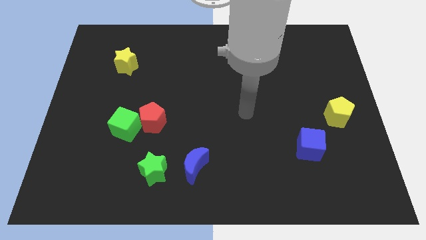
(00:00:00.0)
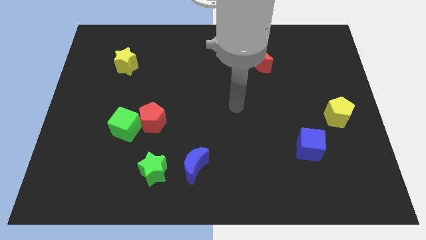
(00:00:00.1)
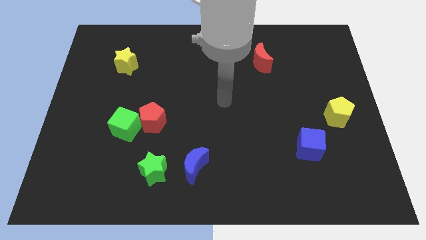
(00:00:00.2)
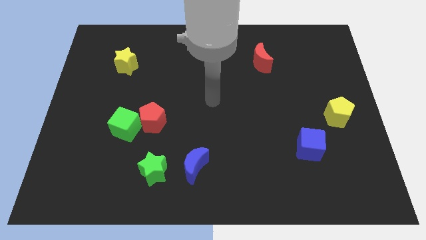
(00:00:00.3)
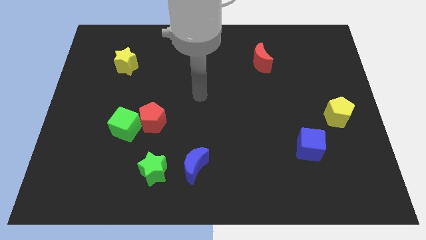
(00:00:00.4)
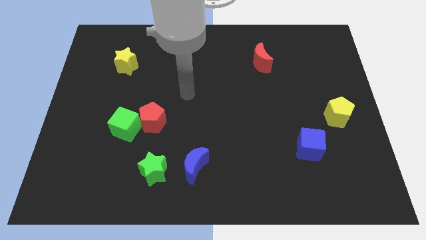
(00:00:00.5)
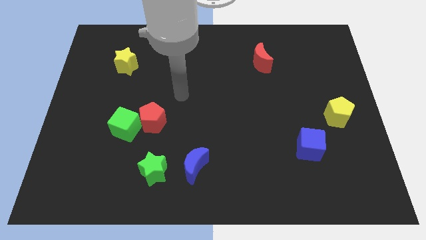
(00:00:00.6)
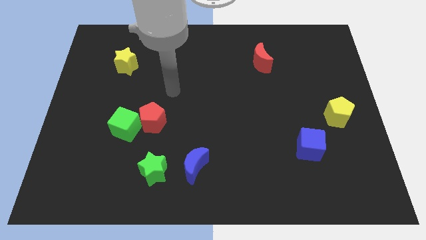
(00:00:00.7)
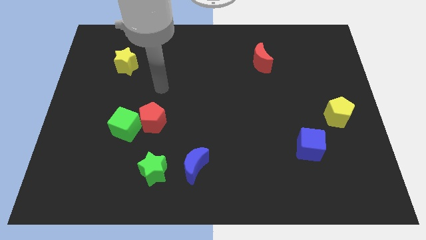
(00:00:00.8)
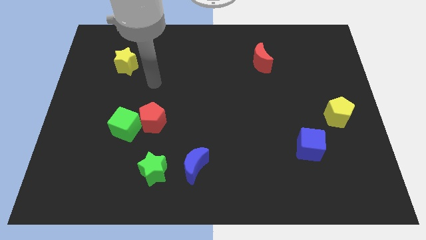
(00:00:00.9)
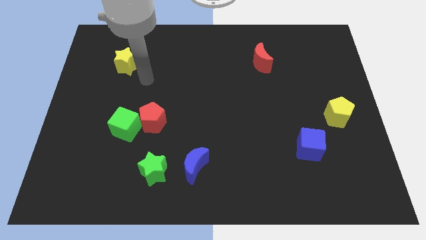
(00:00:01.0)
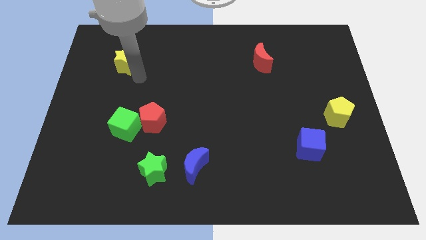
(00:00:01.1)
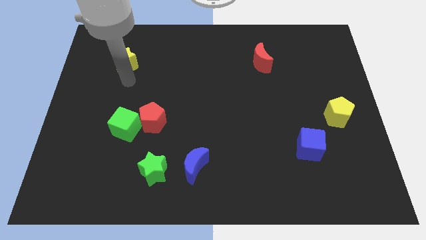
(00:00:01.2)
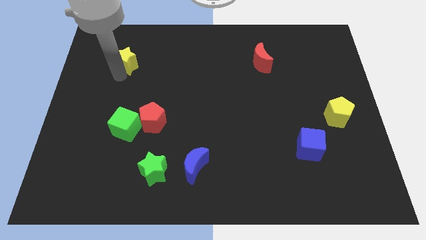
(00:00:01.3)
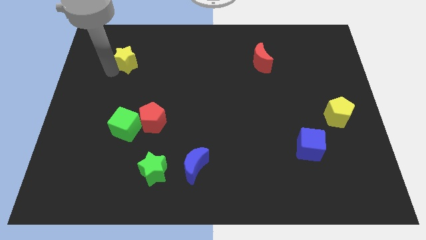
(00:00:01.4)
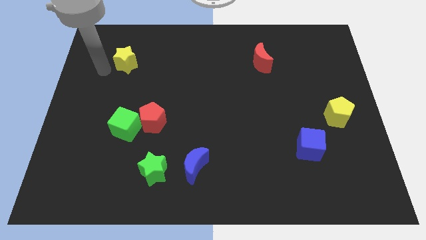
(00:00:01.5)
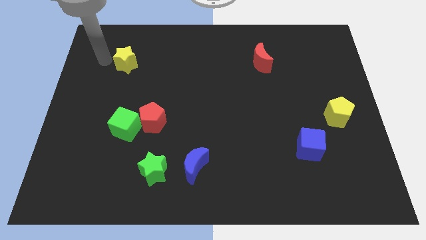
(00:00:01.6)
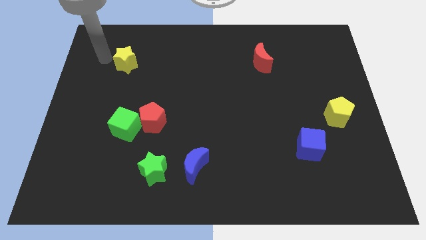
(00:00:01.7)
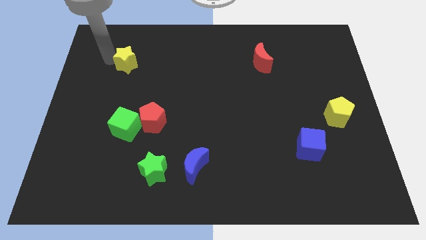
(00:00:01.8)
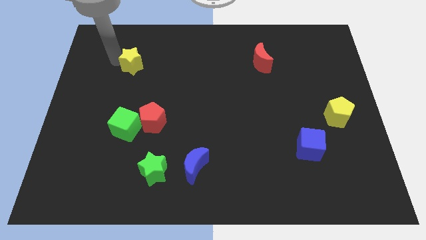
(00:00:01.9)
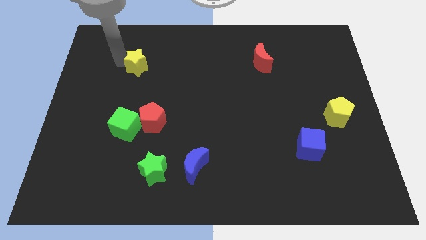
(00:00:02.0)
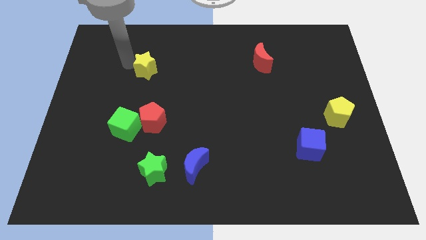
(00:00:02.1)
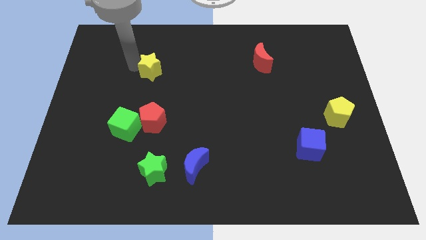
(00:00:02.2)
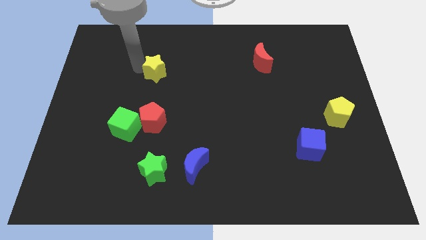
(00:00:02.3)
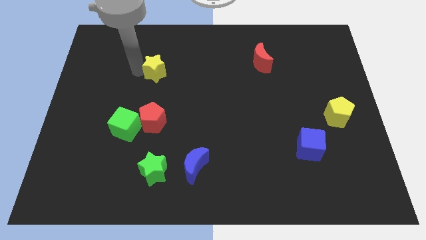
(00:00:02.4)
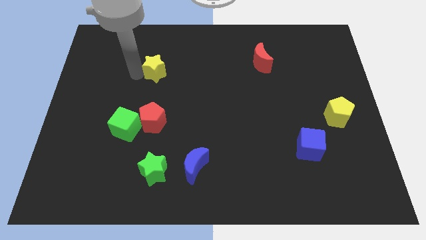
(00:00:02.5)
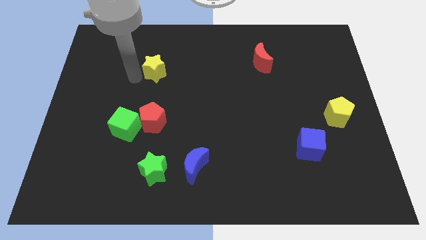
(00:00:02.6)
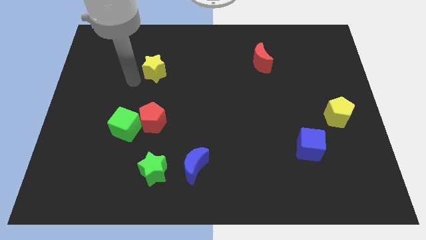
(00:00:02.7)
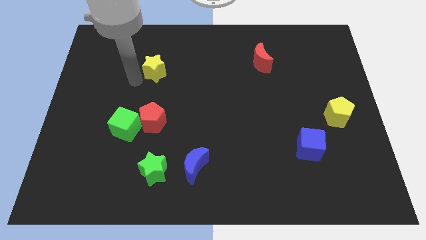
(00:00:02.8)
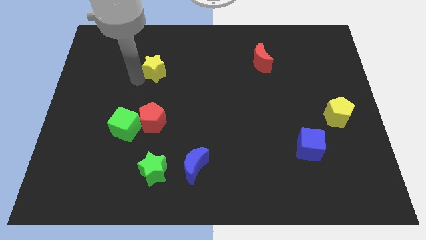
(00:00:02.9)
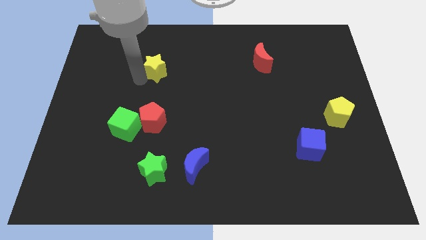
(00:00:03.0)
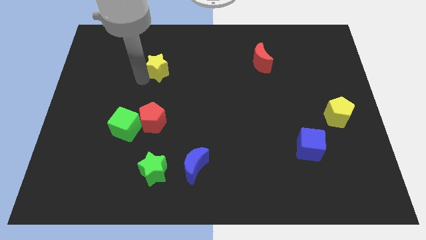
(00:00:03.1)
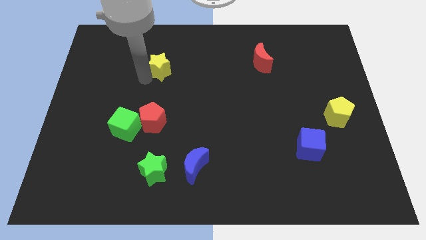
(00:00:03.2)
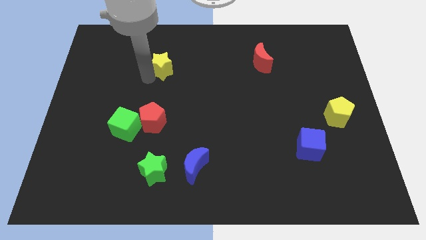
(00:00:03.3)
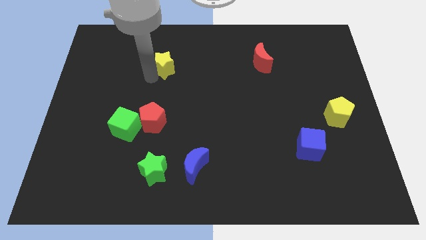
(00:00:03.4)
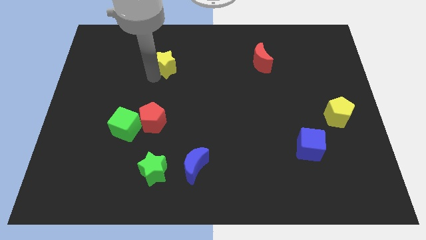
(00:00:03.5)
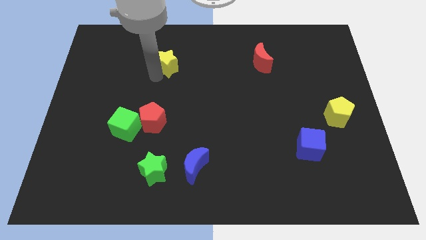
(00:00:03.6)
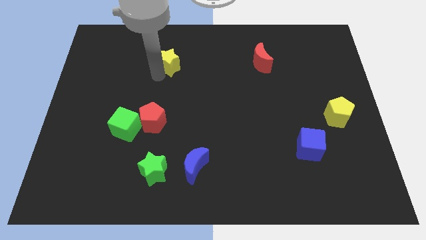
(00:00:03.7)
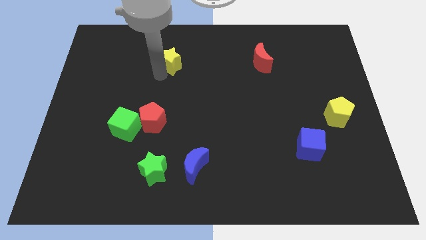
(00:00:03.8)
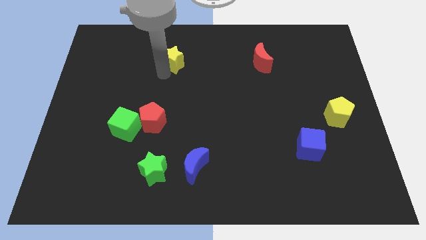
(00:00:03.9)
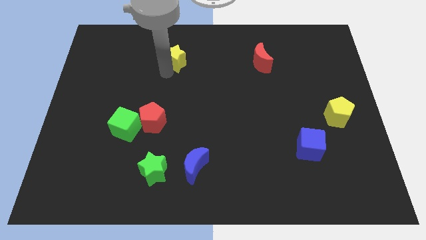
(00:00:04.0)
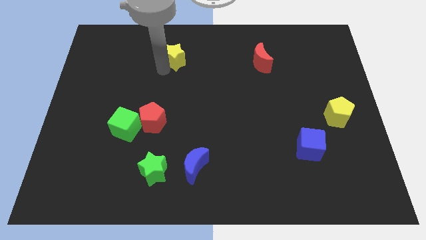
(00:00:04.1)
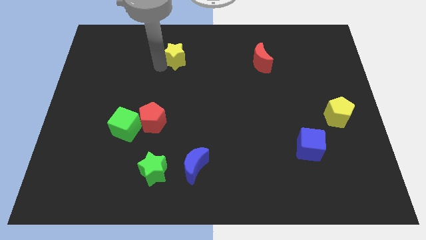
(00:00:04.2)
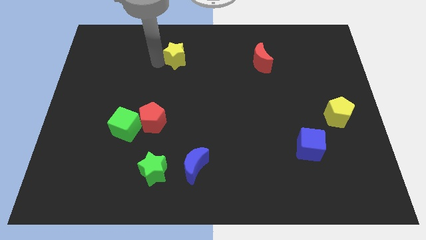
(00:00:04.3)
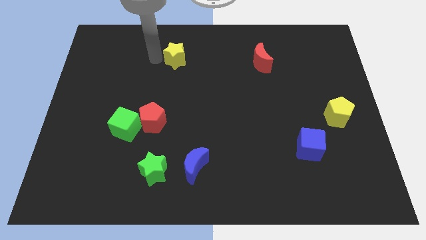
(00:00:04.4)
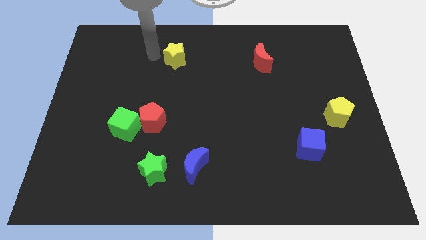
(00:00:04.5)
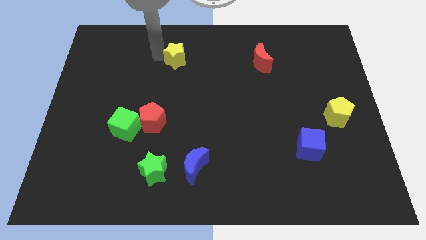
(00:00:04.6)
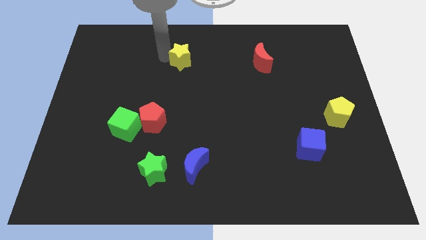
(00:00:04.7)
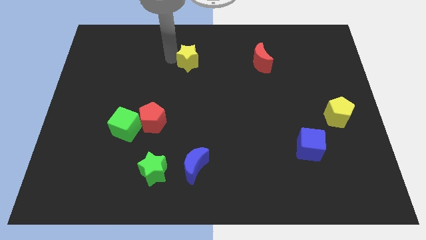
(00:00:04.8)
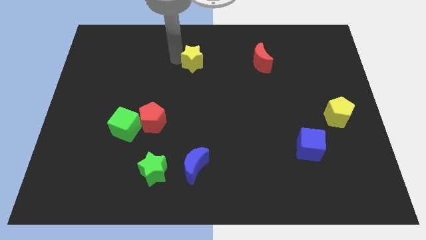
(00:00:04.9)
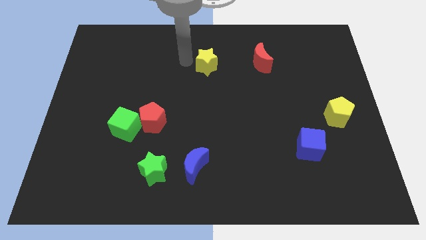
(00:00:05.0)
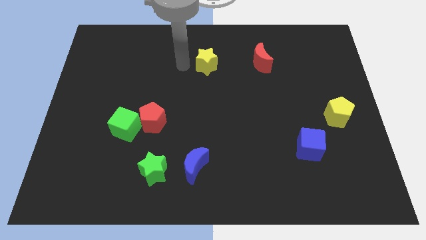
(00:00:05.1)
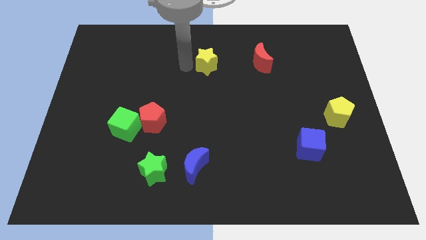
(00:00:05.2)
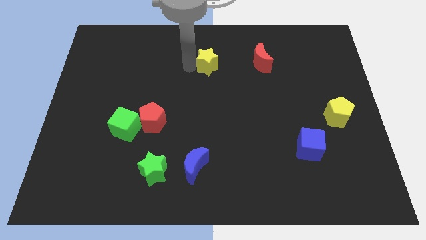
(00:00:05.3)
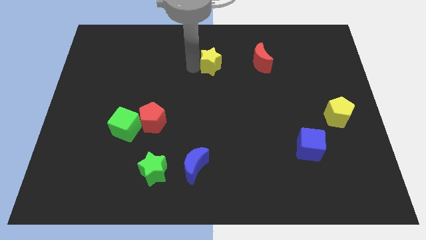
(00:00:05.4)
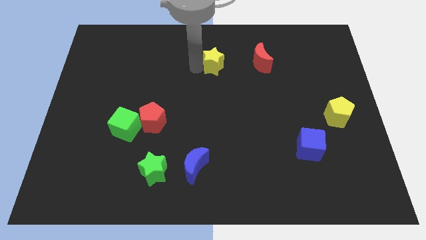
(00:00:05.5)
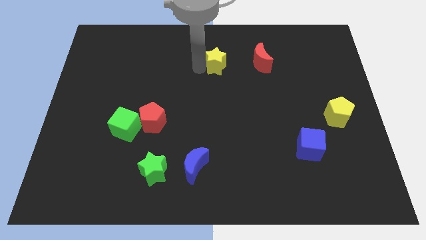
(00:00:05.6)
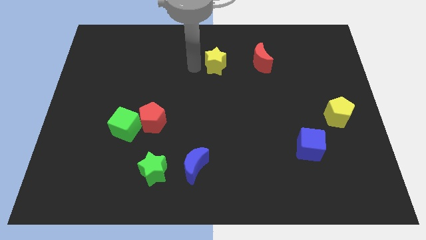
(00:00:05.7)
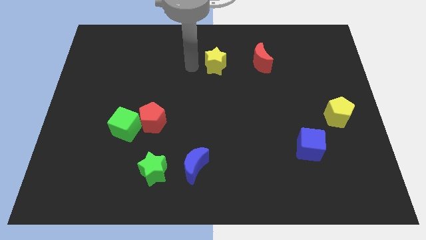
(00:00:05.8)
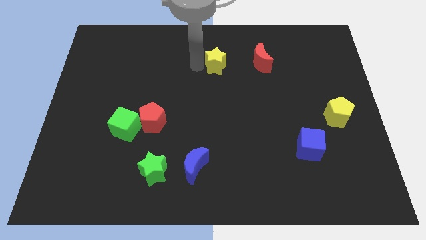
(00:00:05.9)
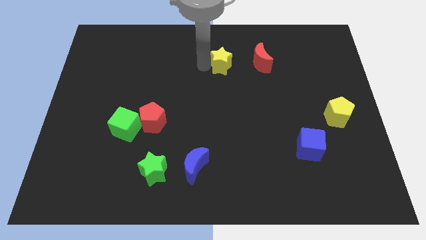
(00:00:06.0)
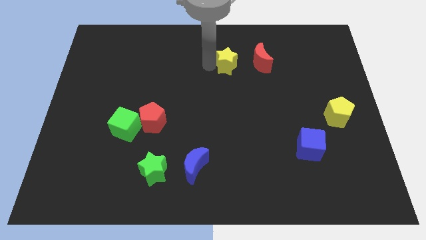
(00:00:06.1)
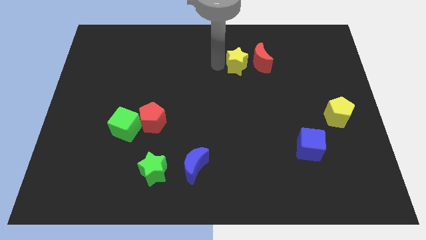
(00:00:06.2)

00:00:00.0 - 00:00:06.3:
move the yellow star close to the red moon

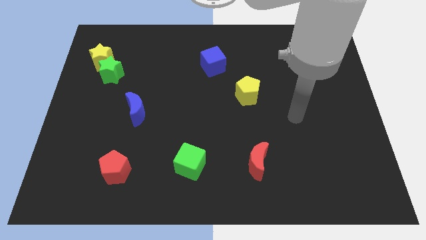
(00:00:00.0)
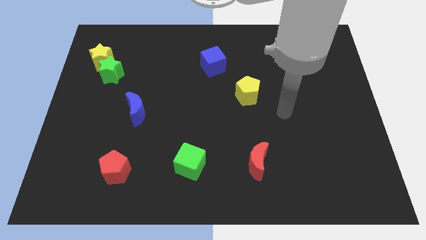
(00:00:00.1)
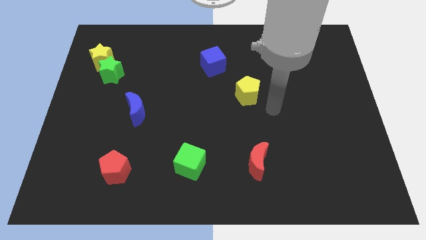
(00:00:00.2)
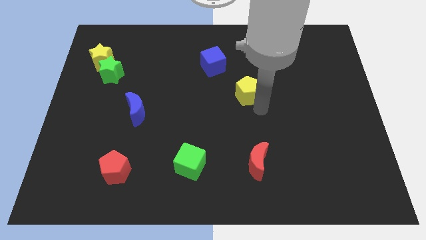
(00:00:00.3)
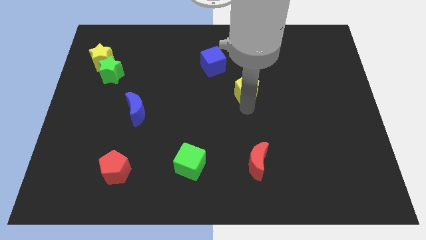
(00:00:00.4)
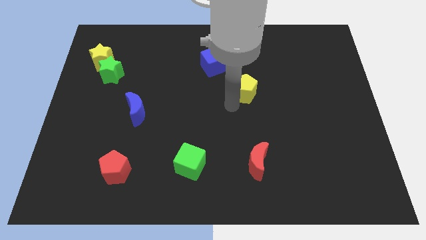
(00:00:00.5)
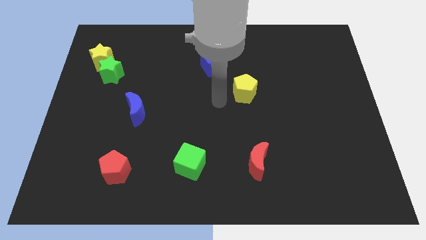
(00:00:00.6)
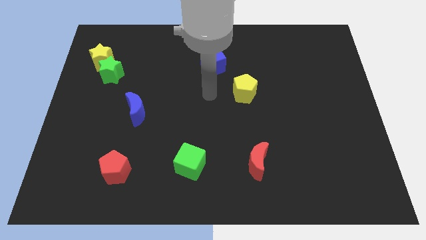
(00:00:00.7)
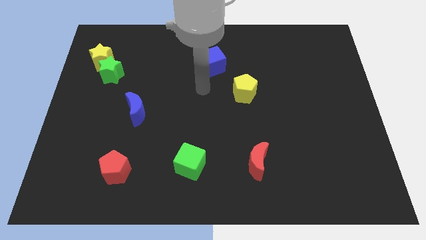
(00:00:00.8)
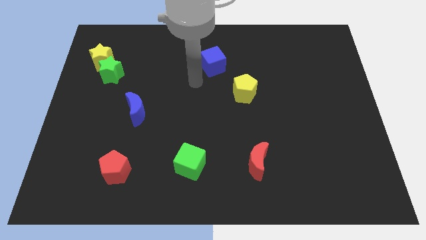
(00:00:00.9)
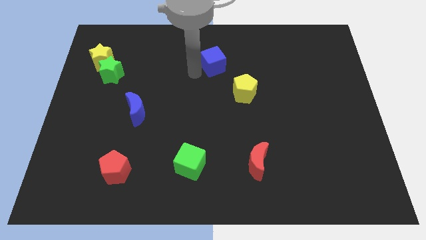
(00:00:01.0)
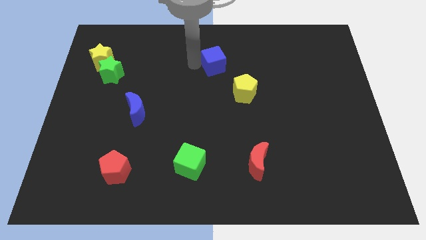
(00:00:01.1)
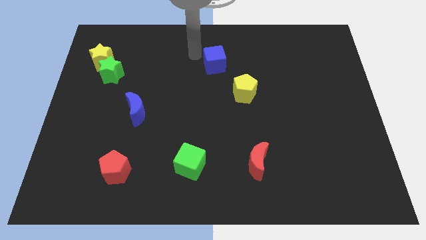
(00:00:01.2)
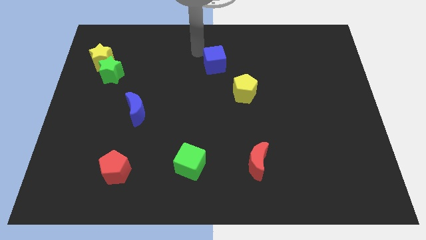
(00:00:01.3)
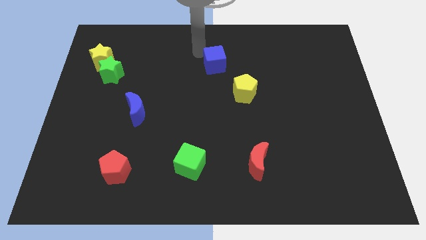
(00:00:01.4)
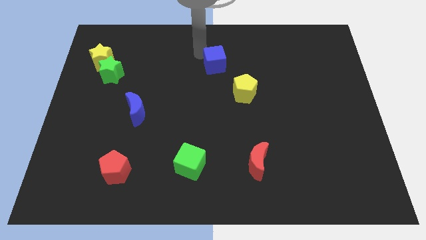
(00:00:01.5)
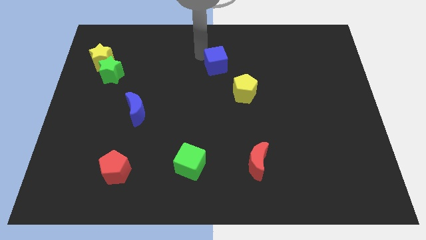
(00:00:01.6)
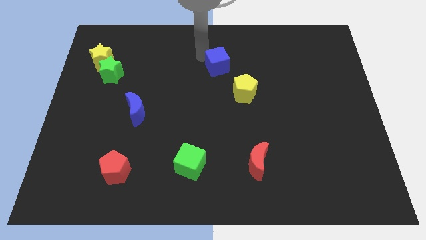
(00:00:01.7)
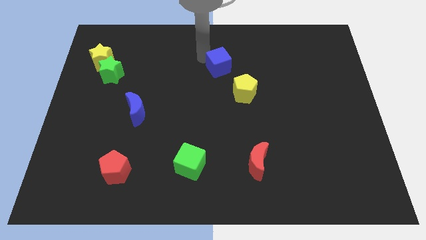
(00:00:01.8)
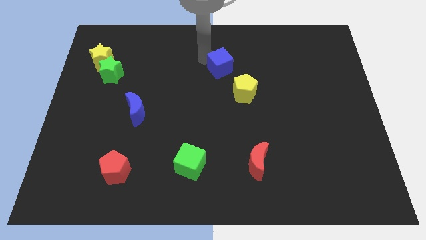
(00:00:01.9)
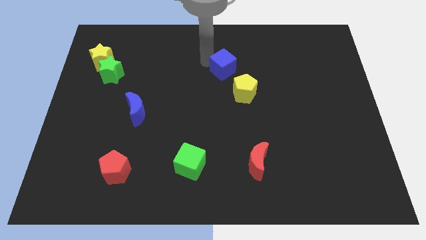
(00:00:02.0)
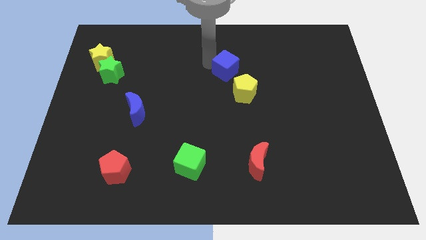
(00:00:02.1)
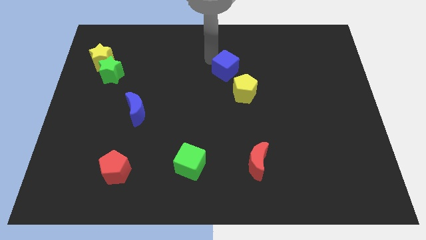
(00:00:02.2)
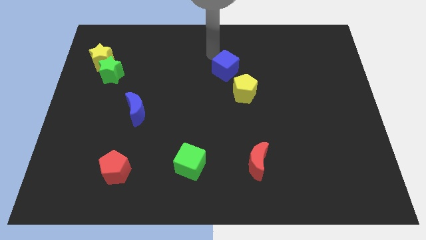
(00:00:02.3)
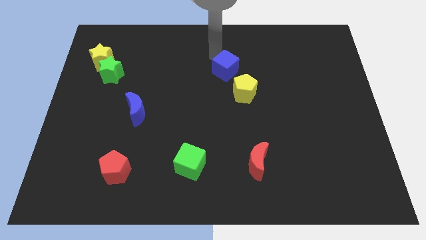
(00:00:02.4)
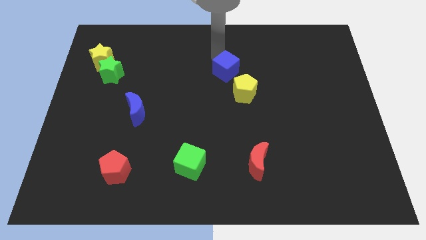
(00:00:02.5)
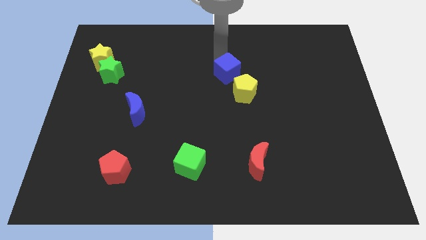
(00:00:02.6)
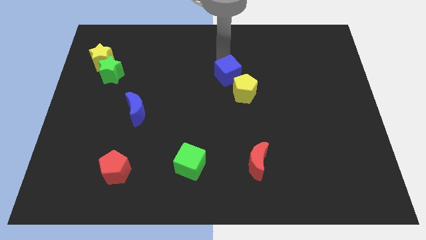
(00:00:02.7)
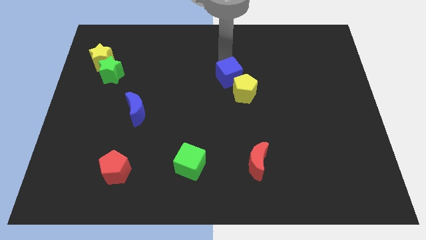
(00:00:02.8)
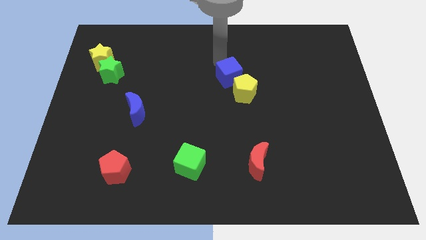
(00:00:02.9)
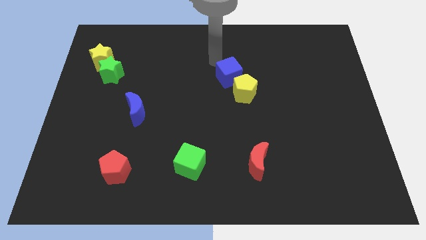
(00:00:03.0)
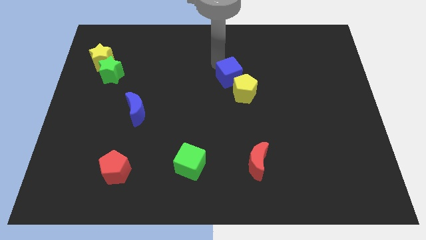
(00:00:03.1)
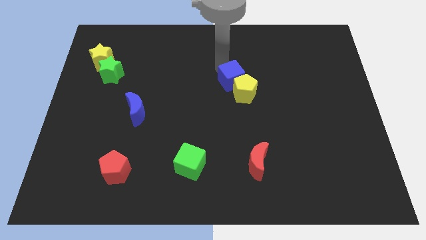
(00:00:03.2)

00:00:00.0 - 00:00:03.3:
move the blue cube towards the yellow pentagon
